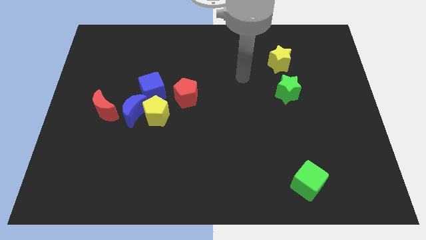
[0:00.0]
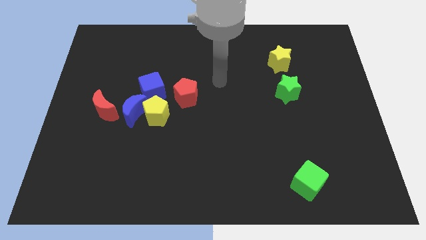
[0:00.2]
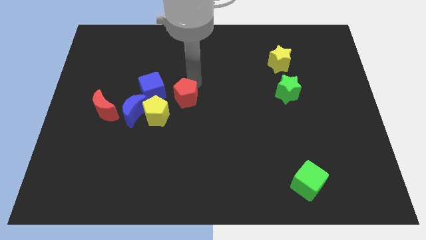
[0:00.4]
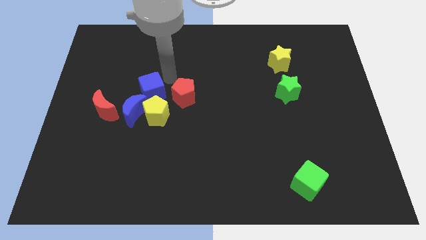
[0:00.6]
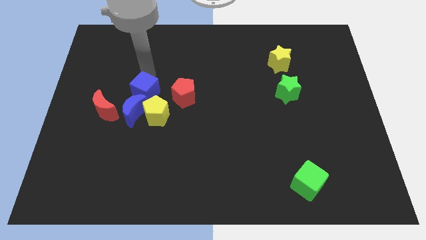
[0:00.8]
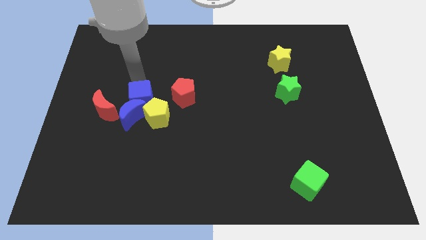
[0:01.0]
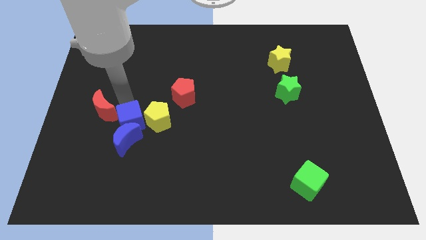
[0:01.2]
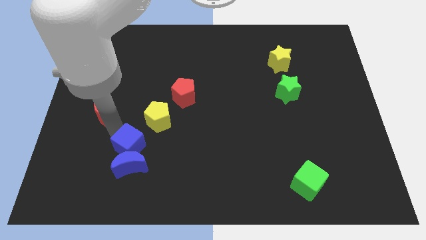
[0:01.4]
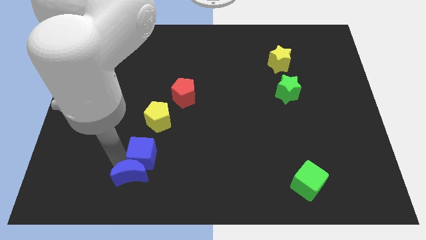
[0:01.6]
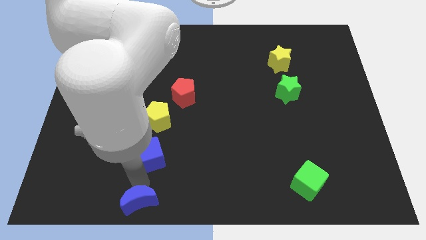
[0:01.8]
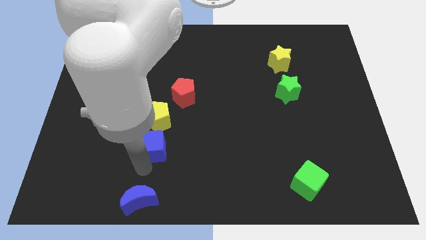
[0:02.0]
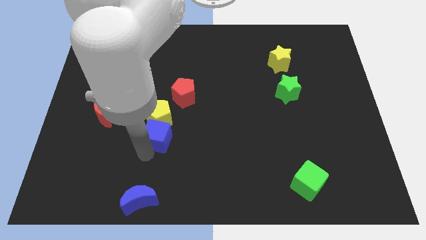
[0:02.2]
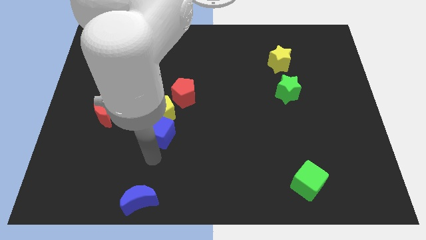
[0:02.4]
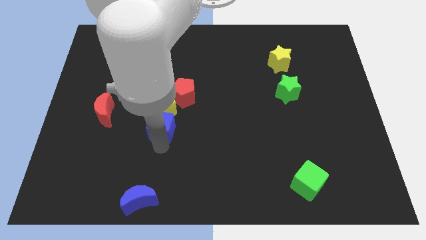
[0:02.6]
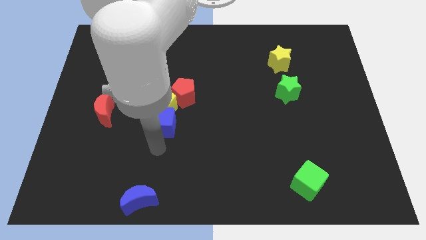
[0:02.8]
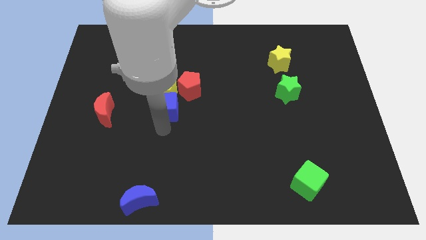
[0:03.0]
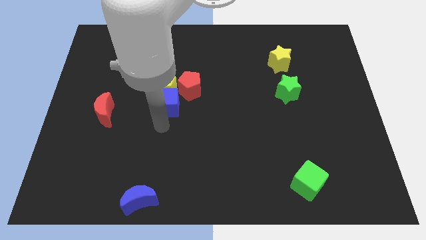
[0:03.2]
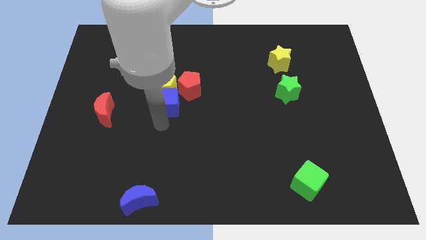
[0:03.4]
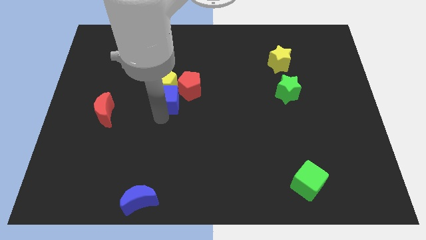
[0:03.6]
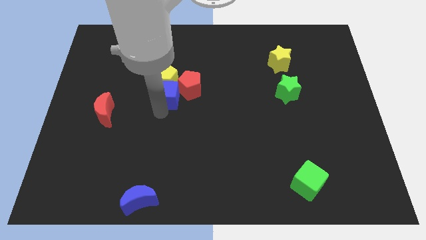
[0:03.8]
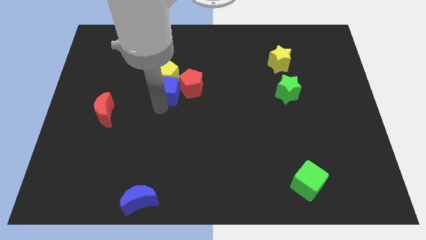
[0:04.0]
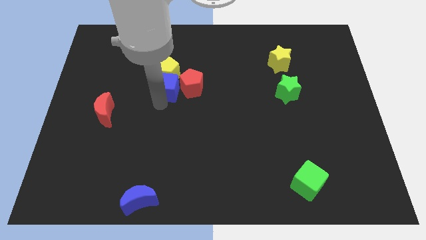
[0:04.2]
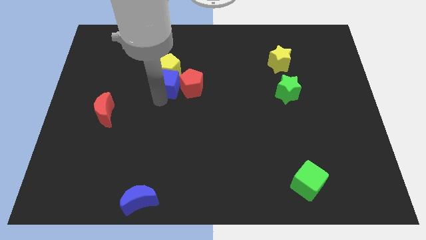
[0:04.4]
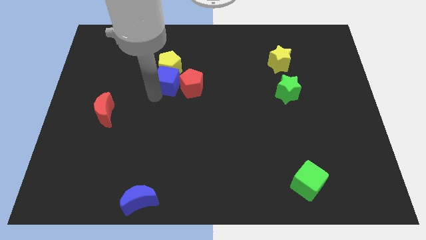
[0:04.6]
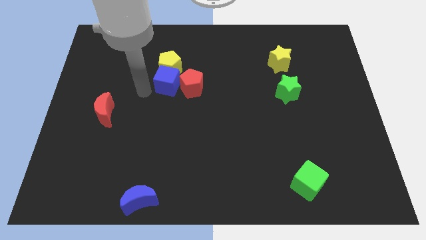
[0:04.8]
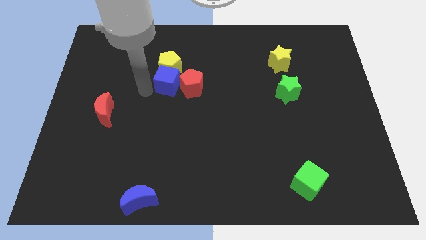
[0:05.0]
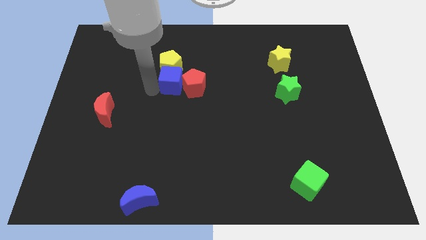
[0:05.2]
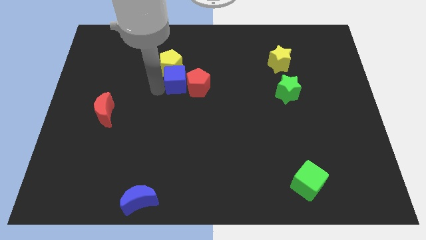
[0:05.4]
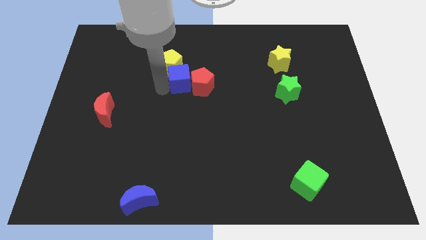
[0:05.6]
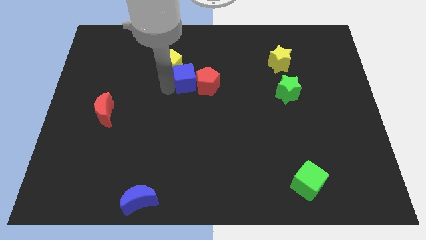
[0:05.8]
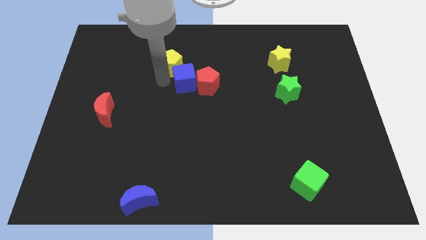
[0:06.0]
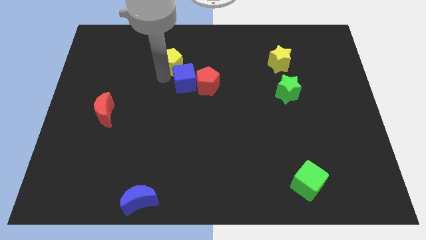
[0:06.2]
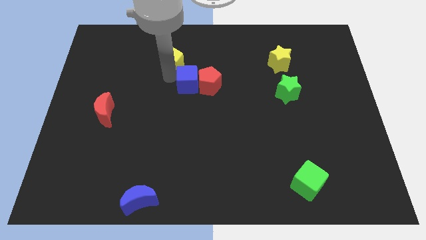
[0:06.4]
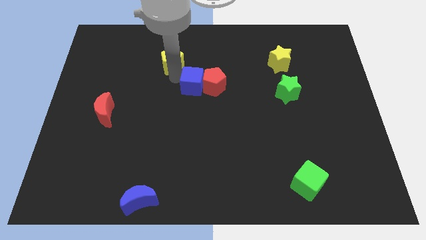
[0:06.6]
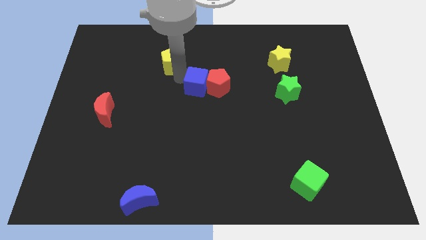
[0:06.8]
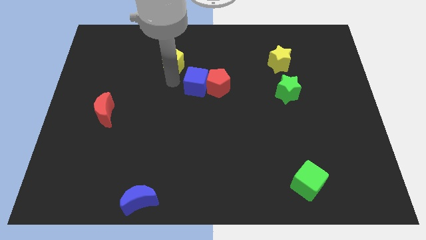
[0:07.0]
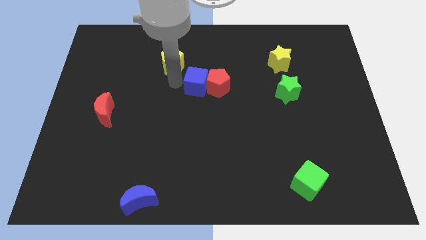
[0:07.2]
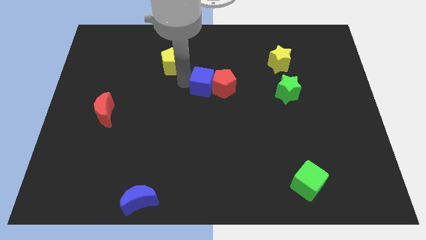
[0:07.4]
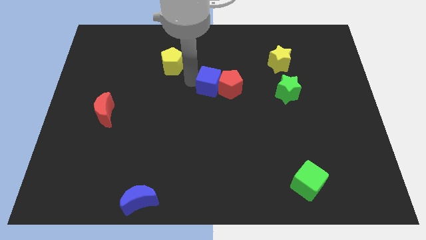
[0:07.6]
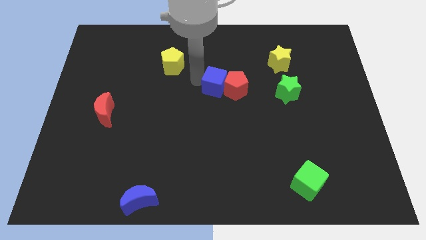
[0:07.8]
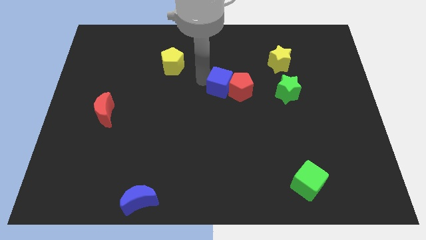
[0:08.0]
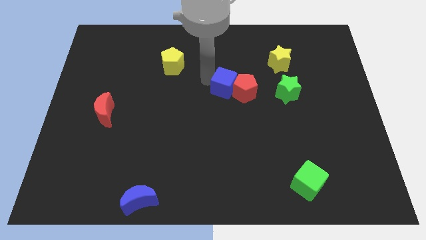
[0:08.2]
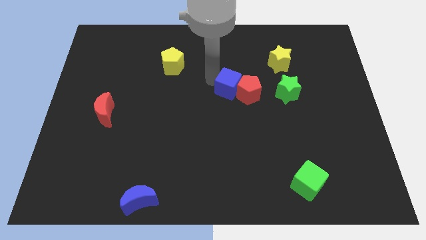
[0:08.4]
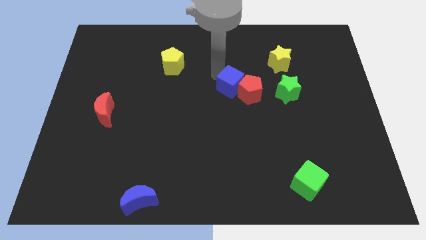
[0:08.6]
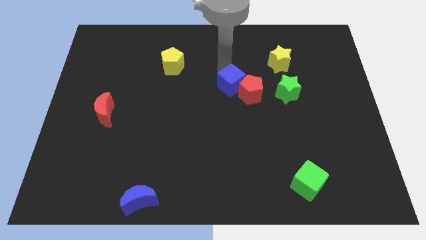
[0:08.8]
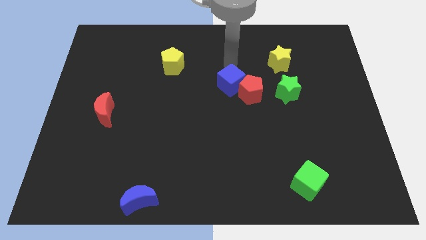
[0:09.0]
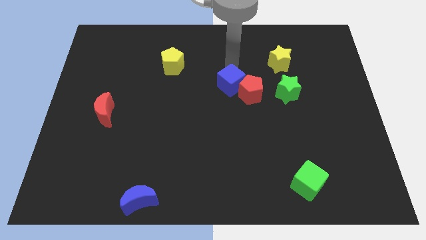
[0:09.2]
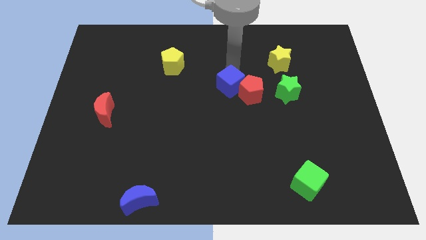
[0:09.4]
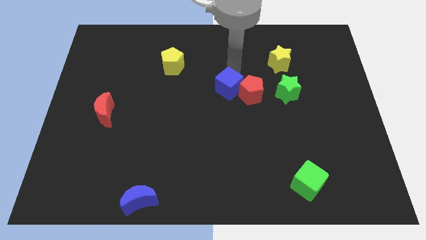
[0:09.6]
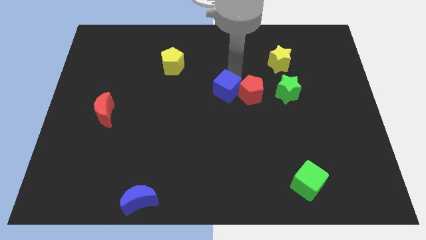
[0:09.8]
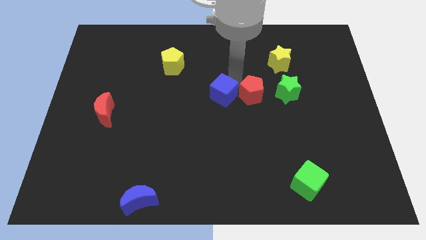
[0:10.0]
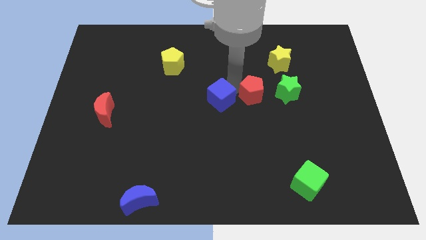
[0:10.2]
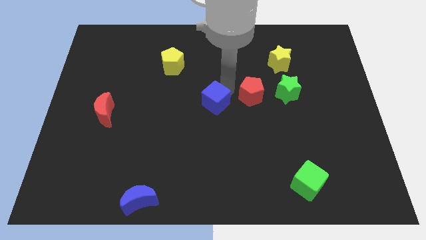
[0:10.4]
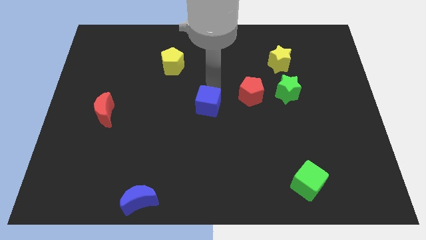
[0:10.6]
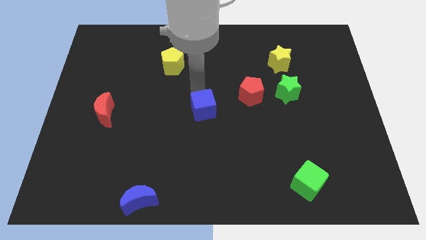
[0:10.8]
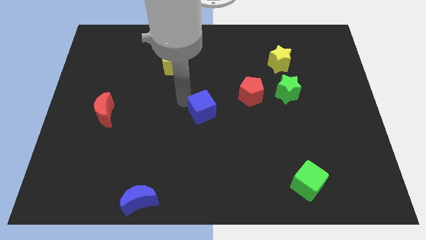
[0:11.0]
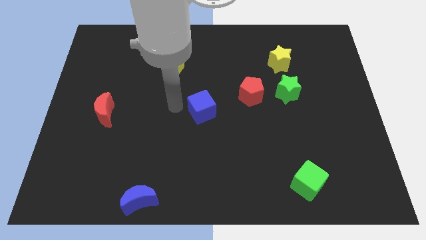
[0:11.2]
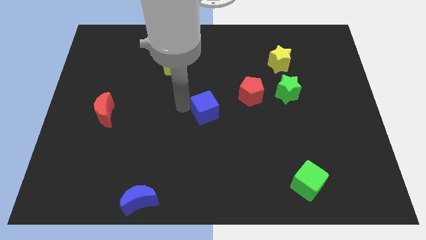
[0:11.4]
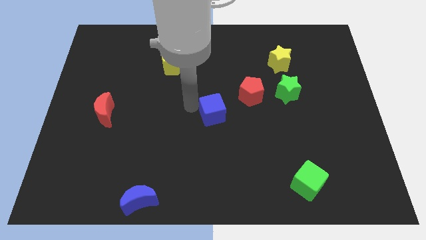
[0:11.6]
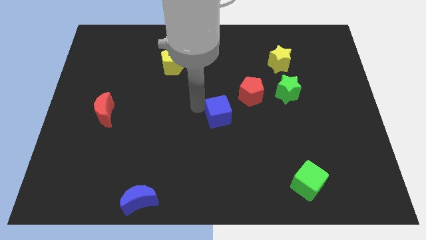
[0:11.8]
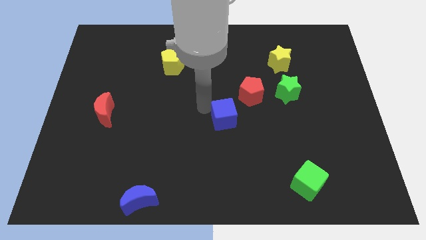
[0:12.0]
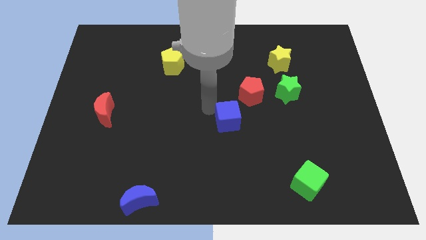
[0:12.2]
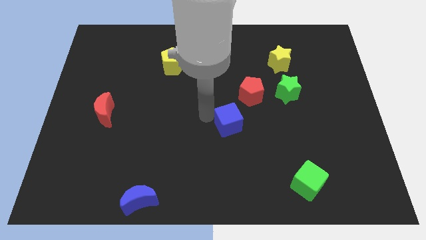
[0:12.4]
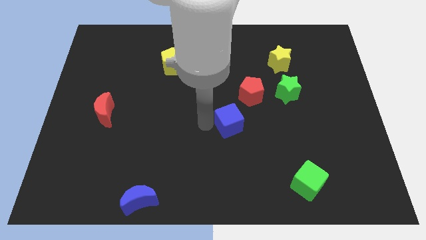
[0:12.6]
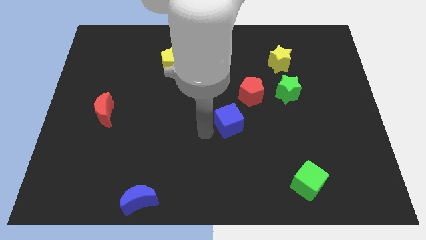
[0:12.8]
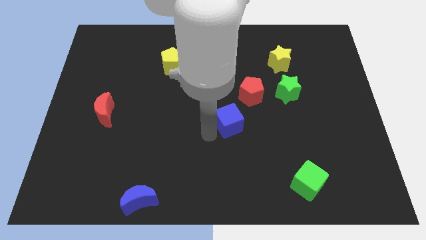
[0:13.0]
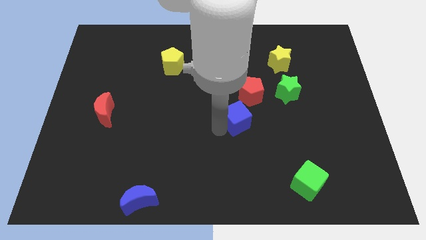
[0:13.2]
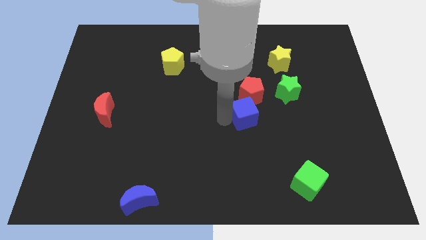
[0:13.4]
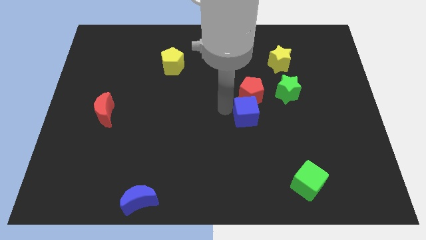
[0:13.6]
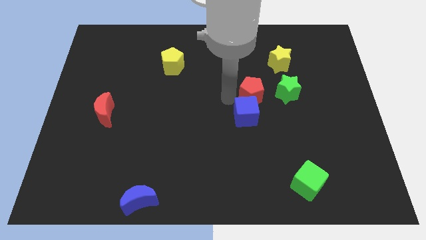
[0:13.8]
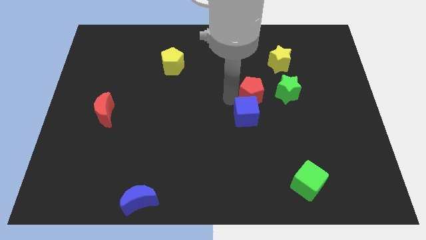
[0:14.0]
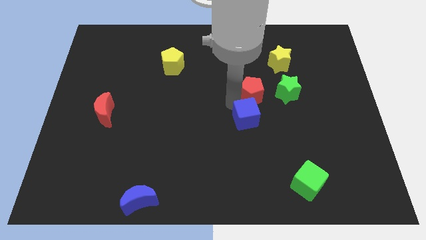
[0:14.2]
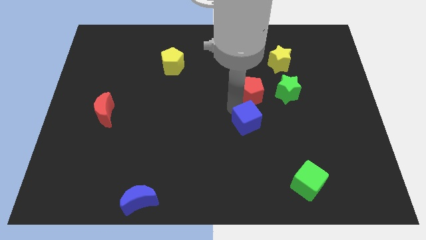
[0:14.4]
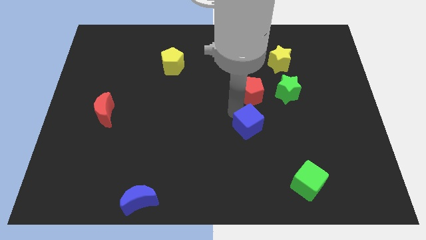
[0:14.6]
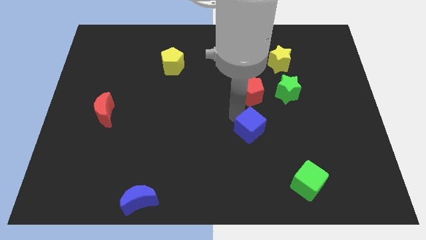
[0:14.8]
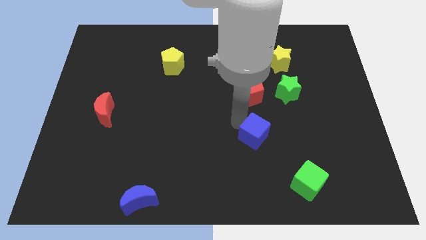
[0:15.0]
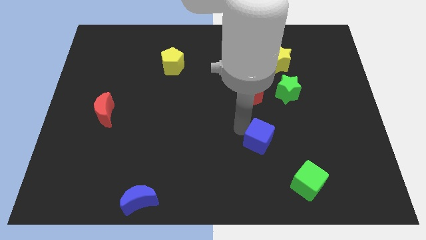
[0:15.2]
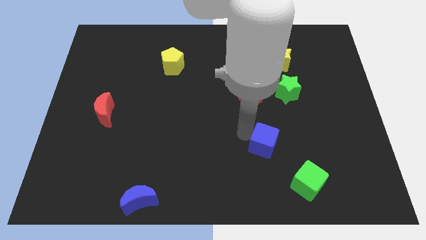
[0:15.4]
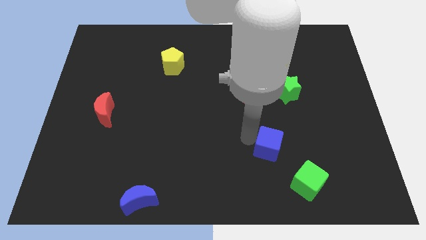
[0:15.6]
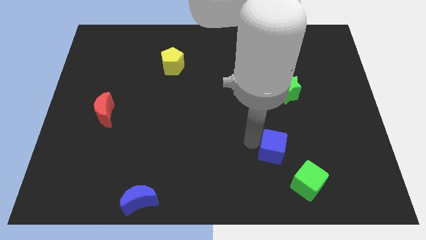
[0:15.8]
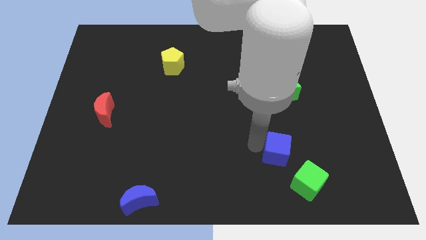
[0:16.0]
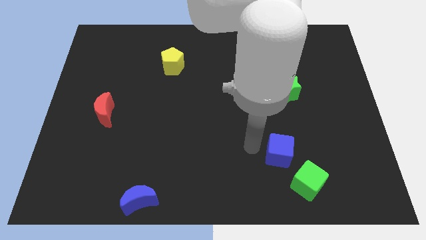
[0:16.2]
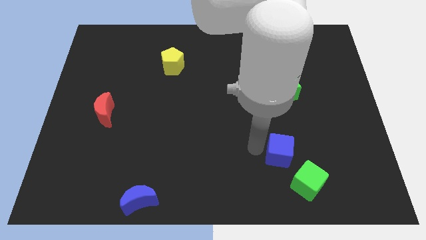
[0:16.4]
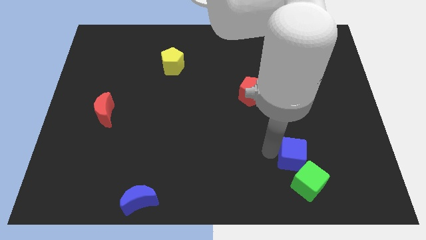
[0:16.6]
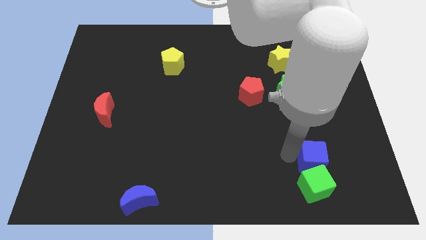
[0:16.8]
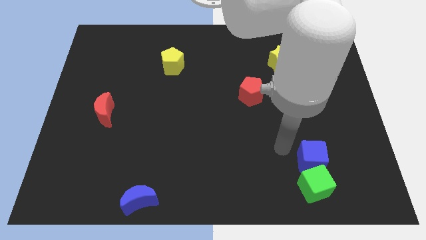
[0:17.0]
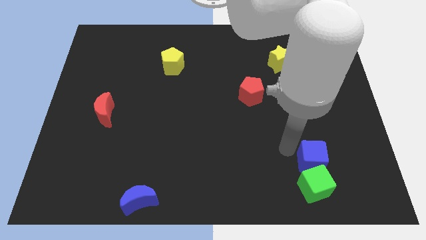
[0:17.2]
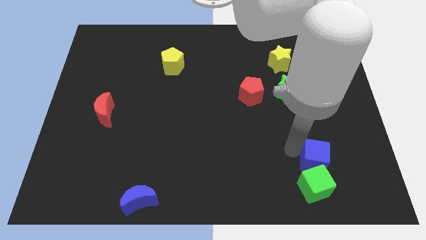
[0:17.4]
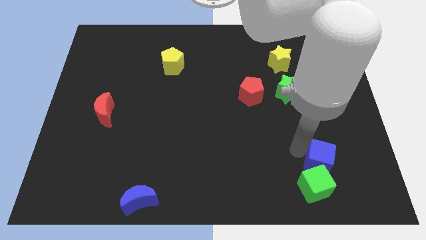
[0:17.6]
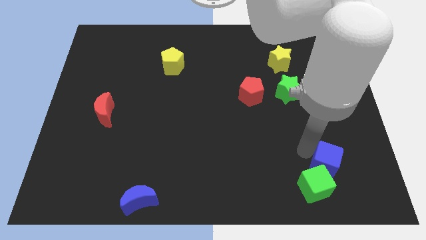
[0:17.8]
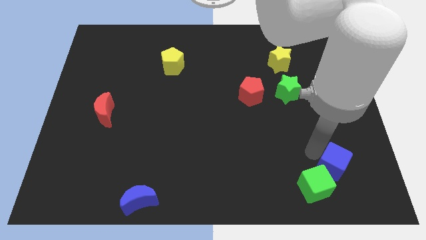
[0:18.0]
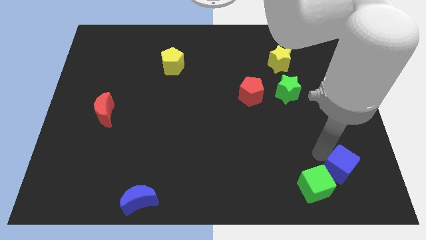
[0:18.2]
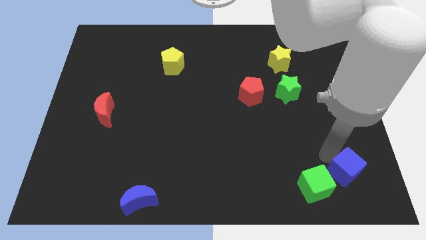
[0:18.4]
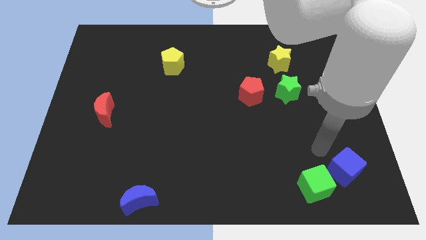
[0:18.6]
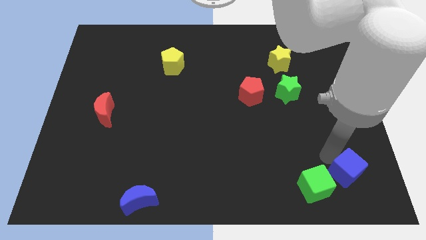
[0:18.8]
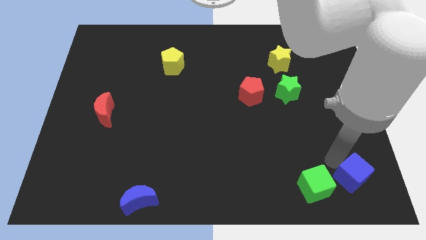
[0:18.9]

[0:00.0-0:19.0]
slide the blue cube to the bottom right
